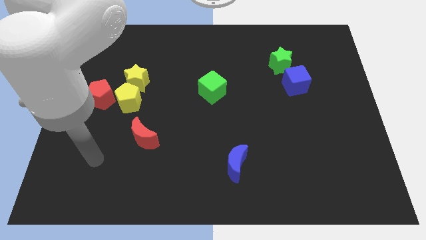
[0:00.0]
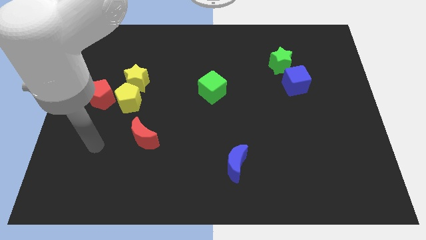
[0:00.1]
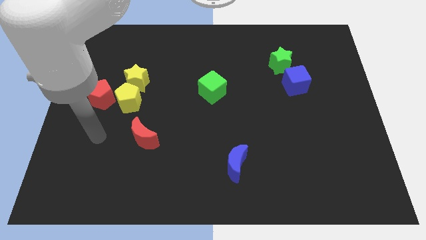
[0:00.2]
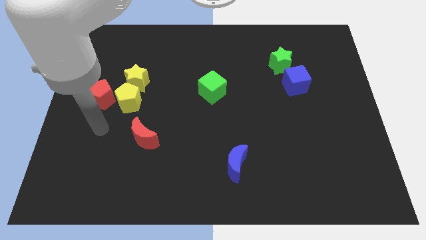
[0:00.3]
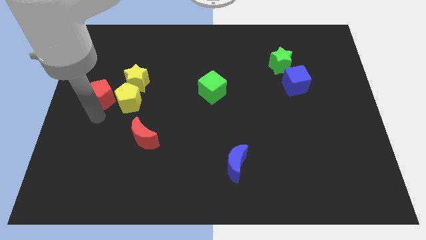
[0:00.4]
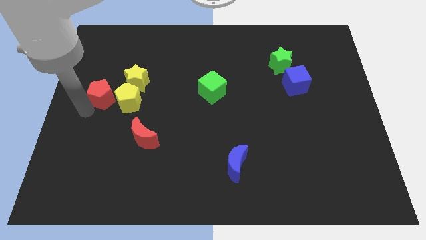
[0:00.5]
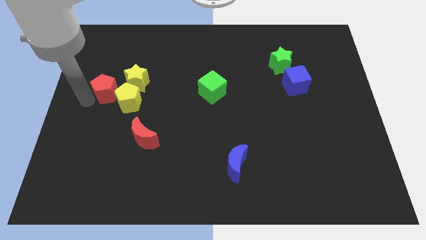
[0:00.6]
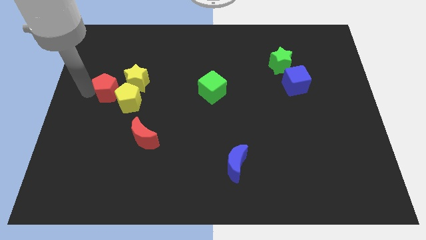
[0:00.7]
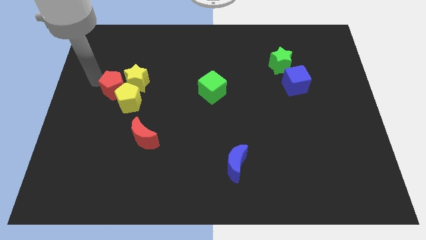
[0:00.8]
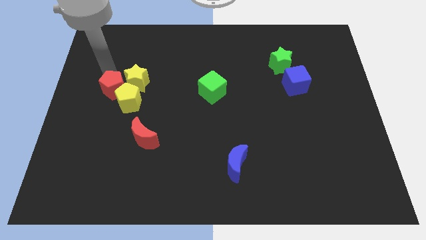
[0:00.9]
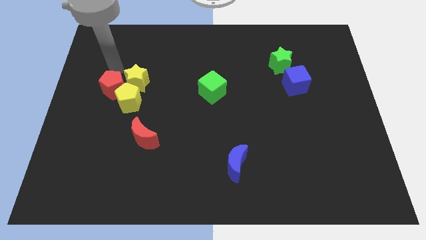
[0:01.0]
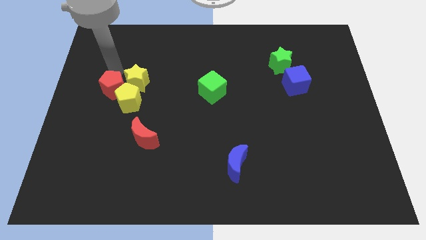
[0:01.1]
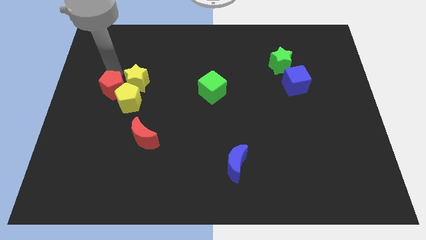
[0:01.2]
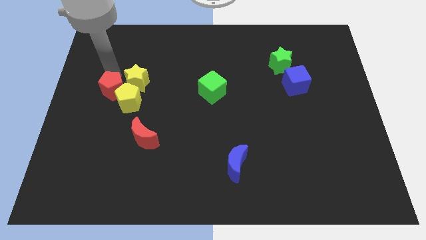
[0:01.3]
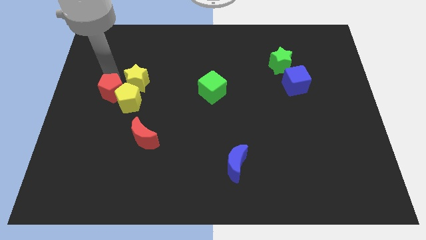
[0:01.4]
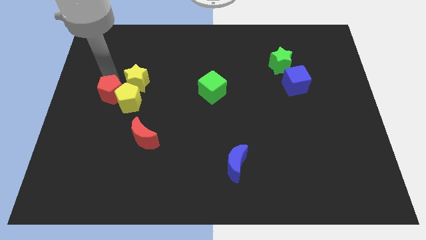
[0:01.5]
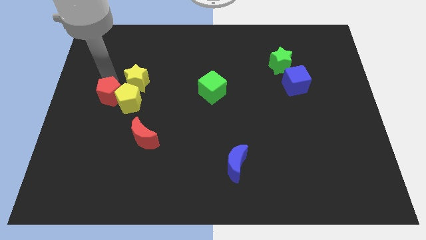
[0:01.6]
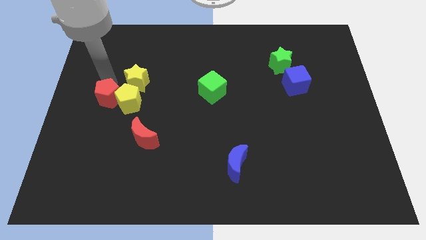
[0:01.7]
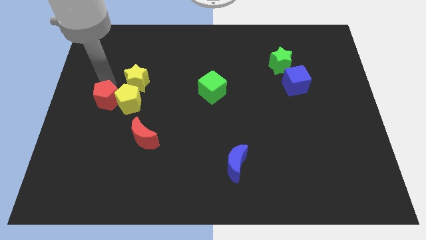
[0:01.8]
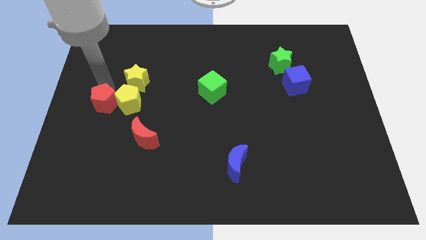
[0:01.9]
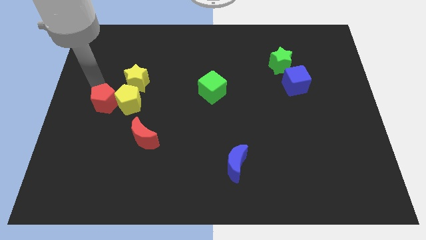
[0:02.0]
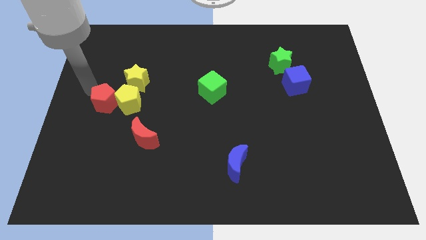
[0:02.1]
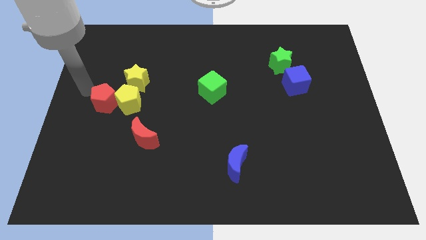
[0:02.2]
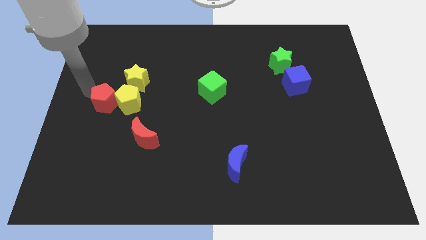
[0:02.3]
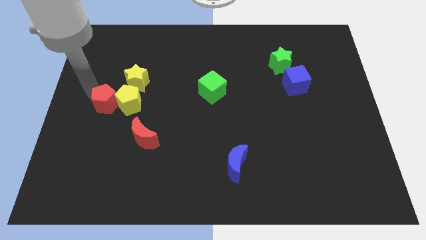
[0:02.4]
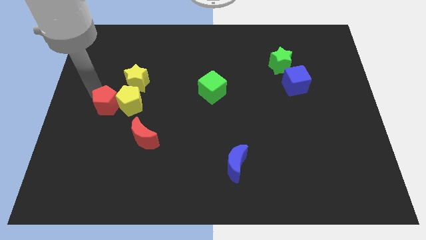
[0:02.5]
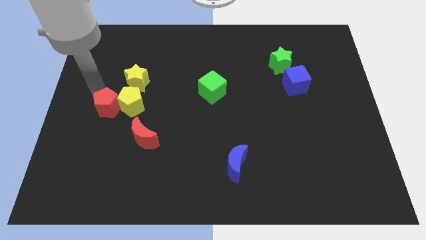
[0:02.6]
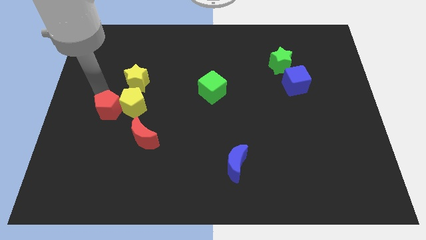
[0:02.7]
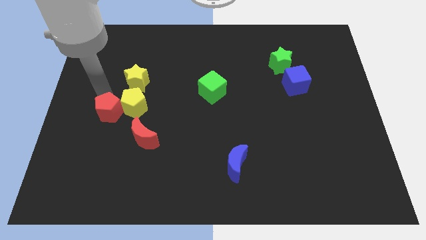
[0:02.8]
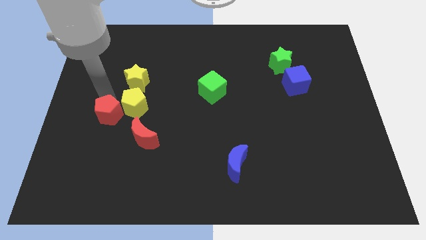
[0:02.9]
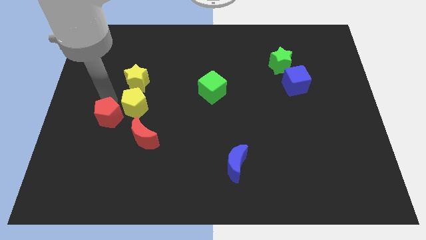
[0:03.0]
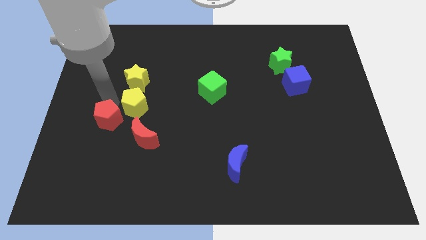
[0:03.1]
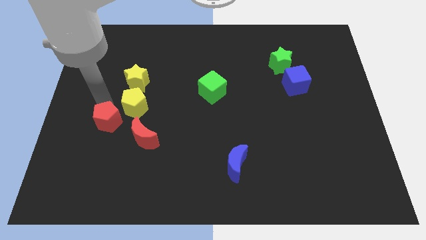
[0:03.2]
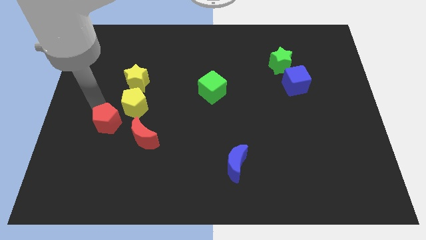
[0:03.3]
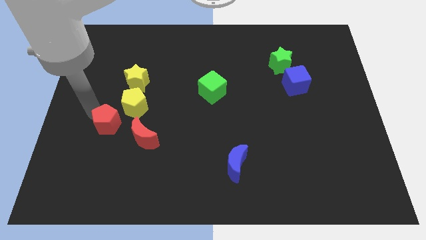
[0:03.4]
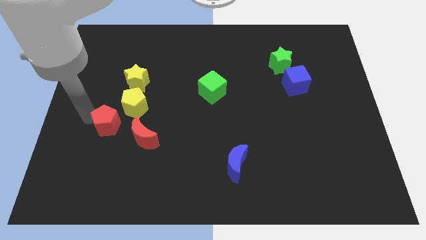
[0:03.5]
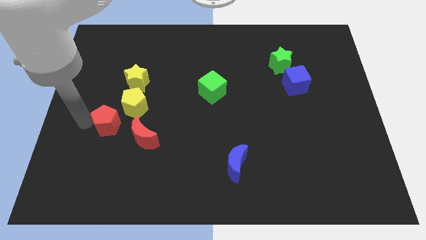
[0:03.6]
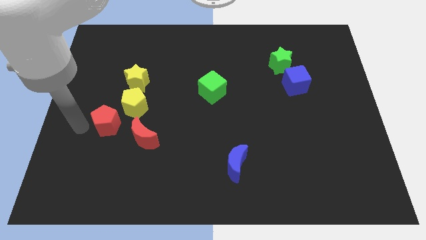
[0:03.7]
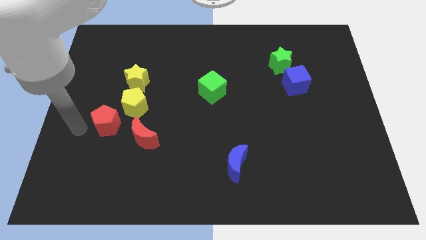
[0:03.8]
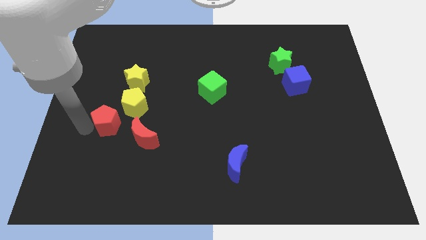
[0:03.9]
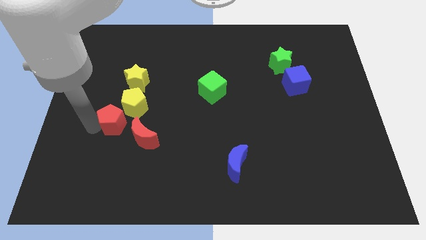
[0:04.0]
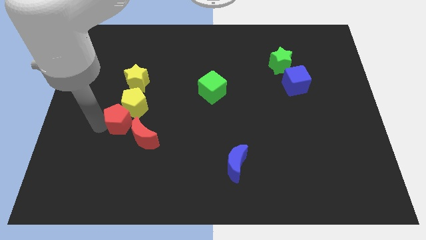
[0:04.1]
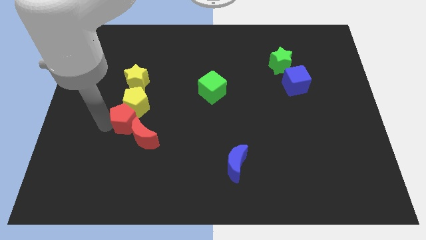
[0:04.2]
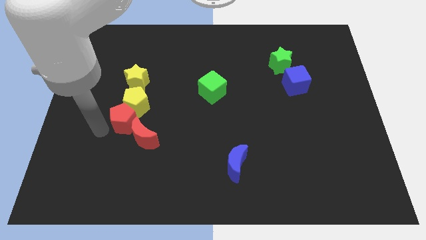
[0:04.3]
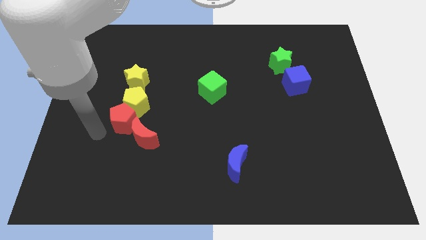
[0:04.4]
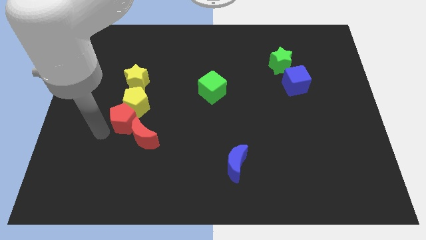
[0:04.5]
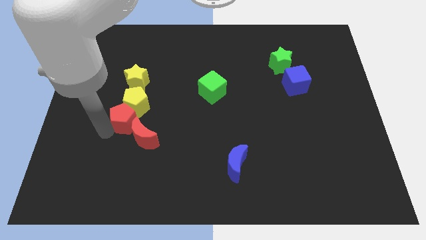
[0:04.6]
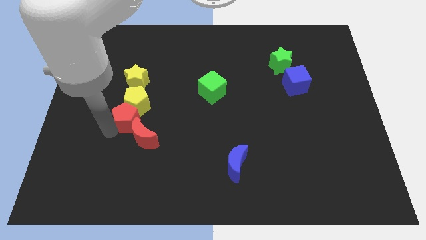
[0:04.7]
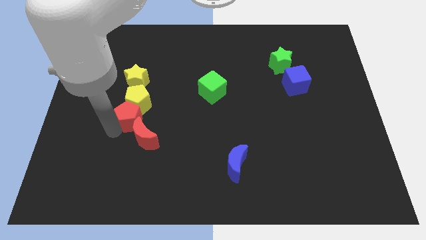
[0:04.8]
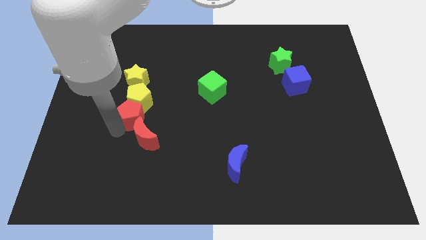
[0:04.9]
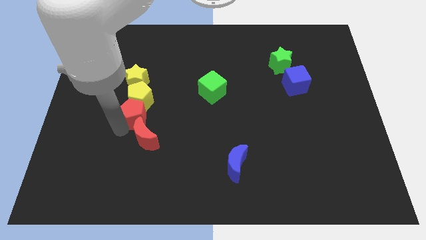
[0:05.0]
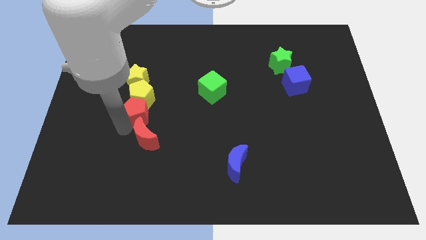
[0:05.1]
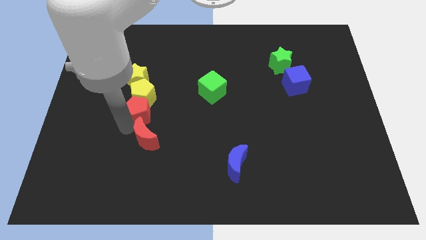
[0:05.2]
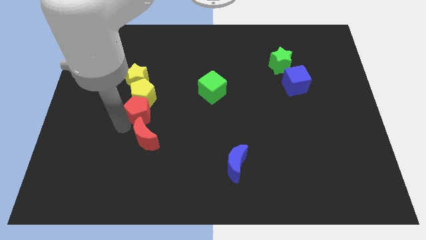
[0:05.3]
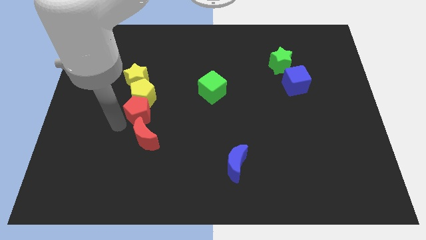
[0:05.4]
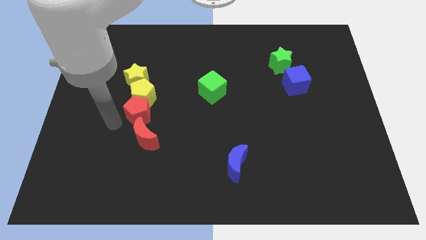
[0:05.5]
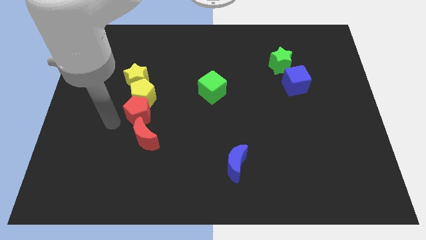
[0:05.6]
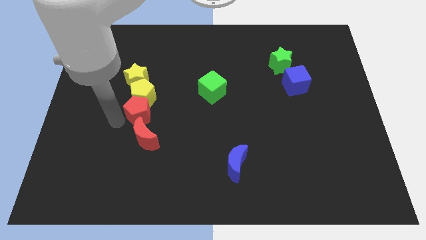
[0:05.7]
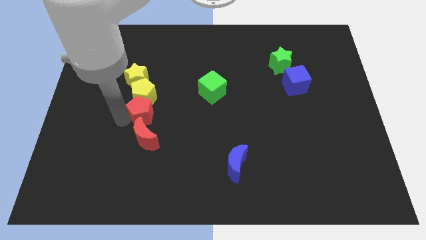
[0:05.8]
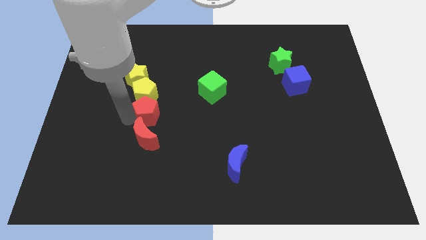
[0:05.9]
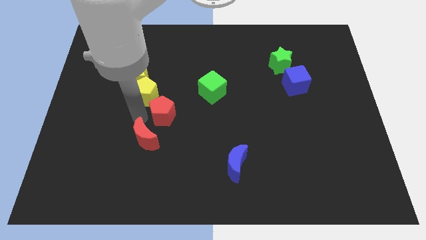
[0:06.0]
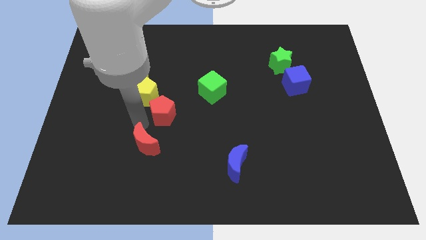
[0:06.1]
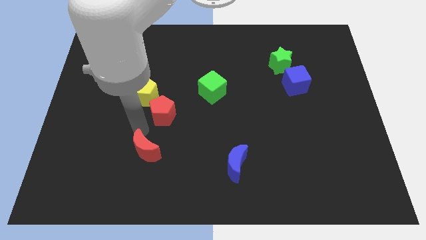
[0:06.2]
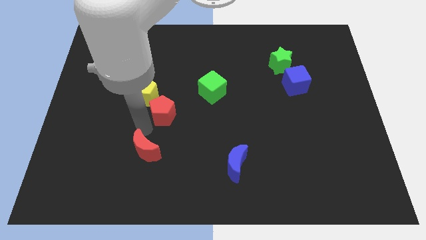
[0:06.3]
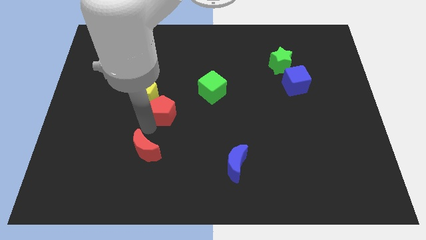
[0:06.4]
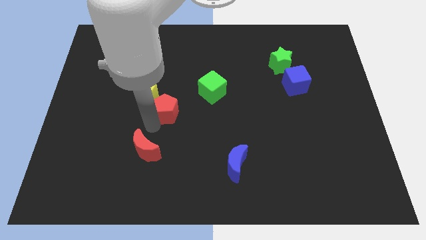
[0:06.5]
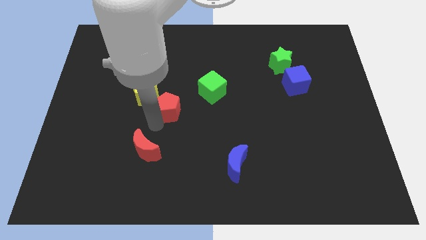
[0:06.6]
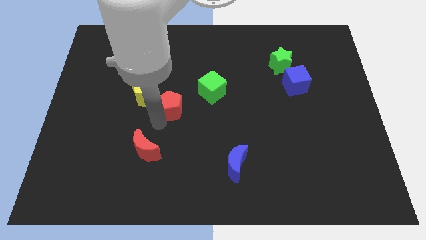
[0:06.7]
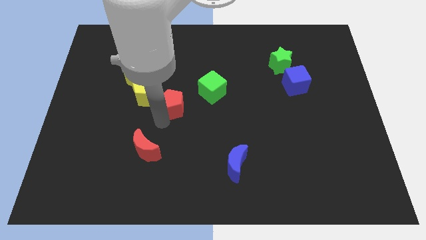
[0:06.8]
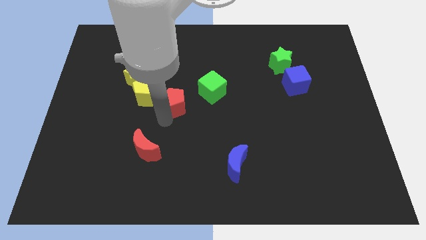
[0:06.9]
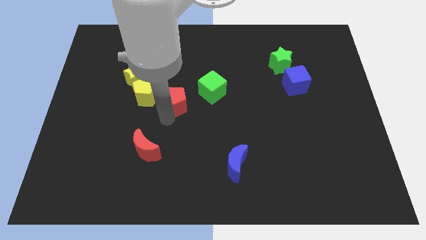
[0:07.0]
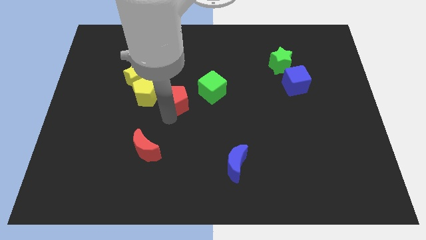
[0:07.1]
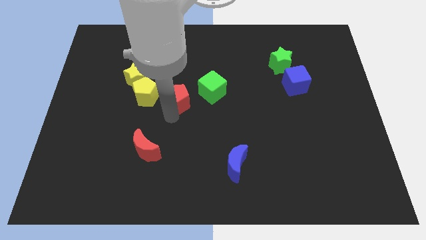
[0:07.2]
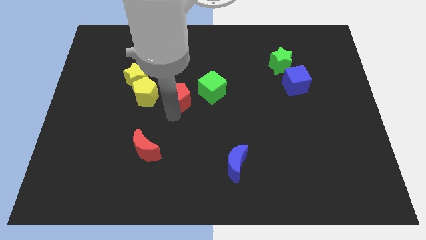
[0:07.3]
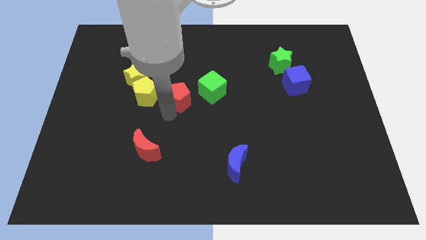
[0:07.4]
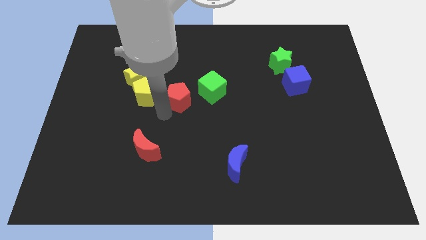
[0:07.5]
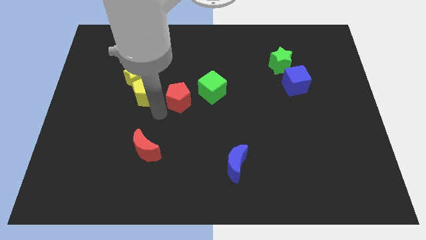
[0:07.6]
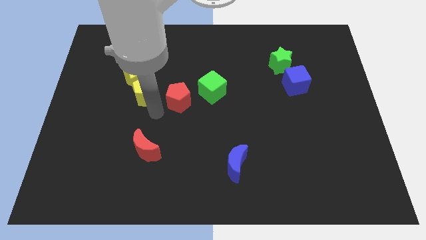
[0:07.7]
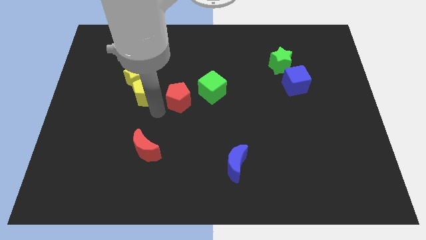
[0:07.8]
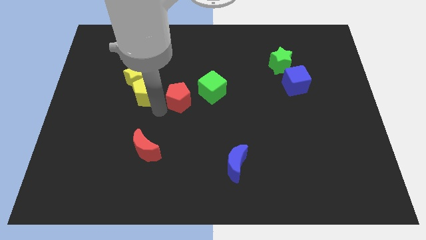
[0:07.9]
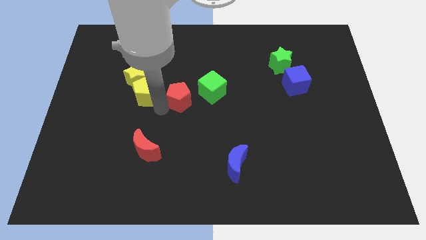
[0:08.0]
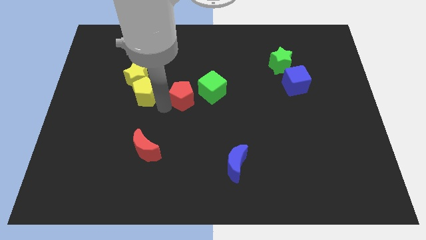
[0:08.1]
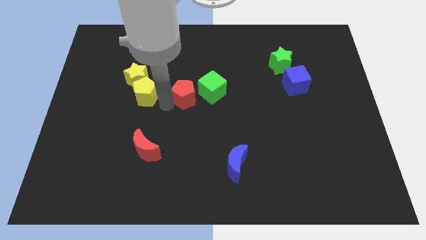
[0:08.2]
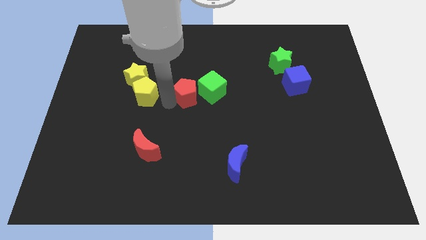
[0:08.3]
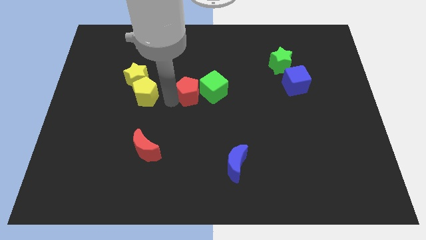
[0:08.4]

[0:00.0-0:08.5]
push the red pentagon to the green cube
